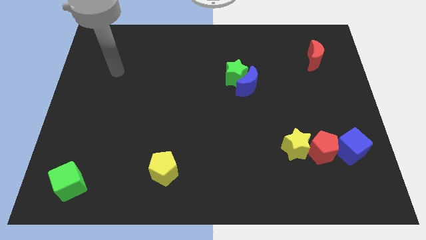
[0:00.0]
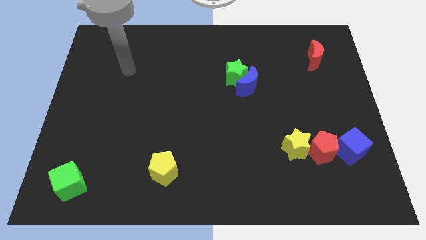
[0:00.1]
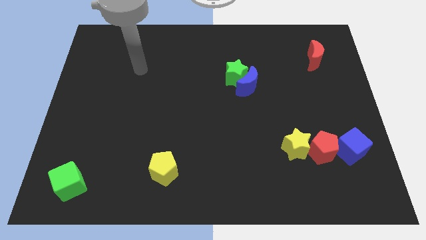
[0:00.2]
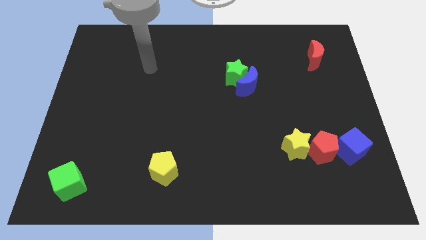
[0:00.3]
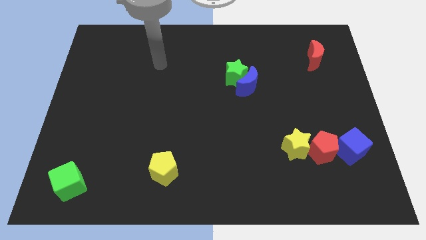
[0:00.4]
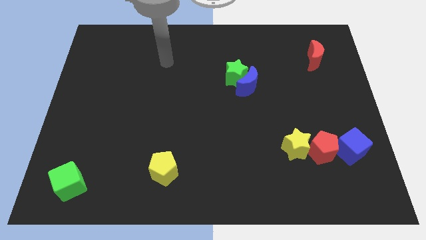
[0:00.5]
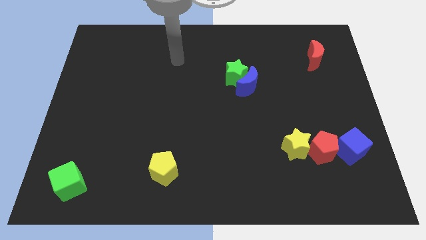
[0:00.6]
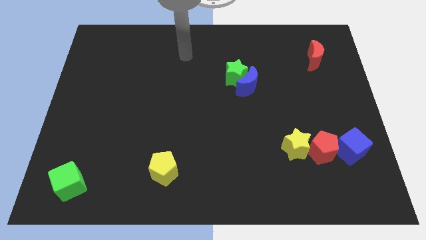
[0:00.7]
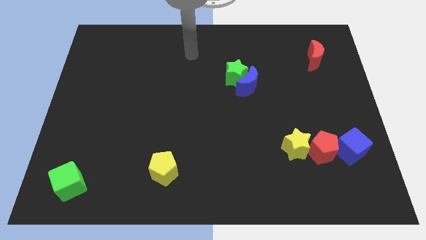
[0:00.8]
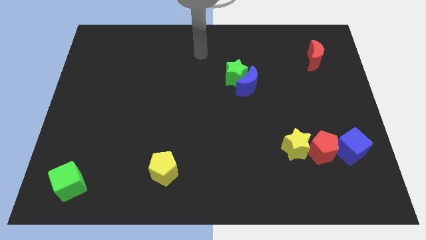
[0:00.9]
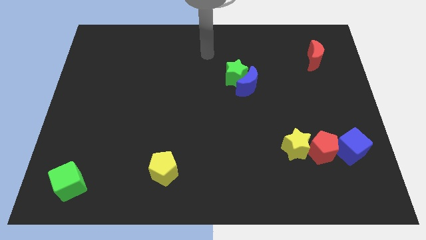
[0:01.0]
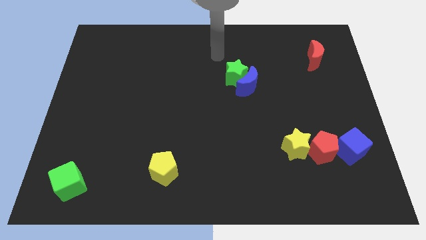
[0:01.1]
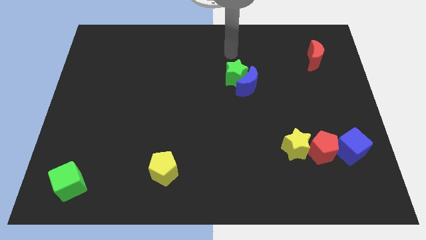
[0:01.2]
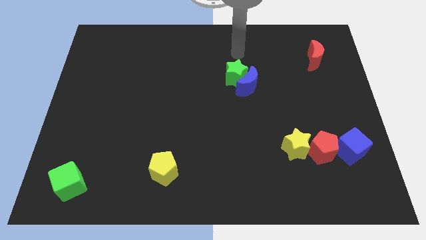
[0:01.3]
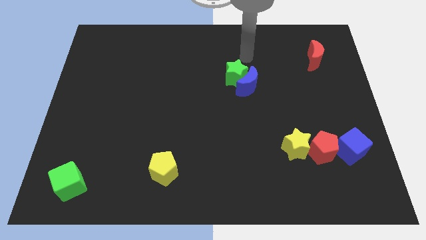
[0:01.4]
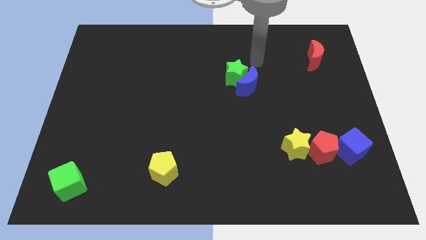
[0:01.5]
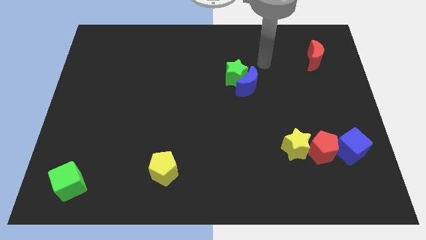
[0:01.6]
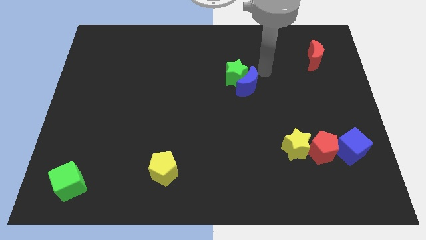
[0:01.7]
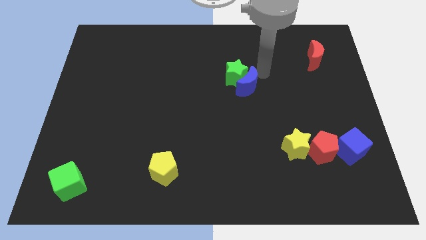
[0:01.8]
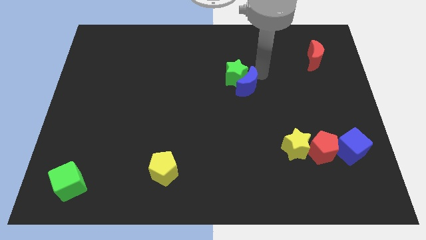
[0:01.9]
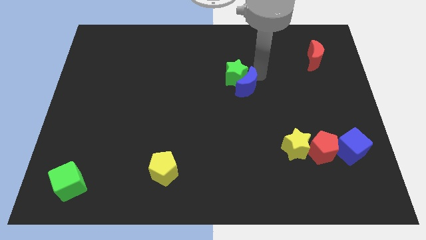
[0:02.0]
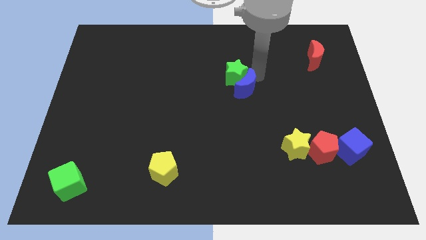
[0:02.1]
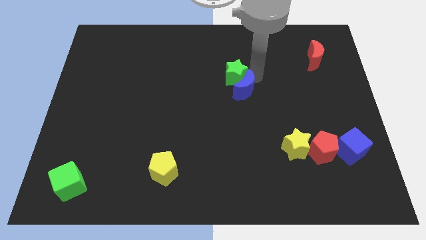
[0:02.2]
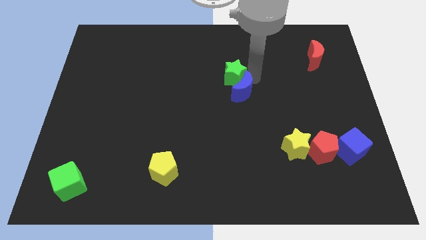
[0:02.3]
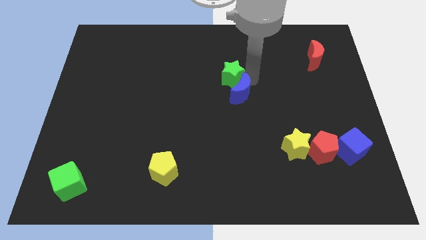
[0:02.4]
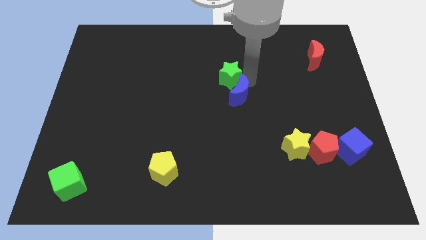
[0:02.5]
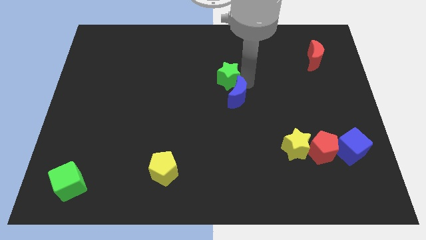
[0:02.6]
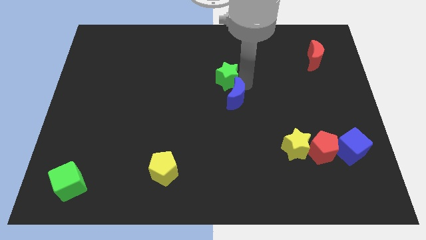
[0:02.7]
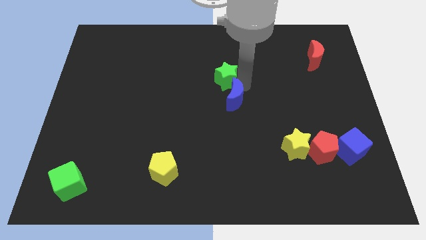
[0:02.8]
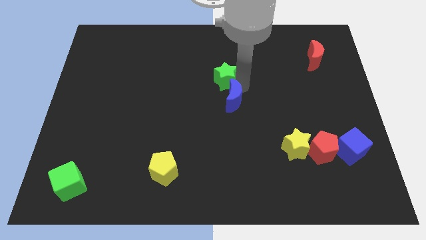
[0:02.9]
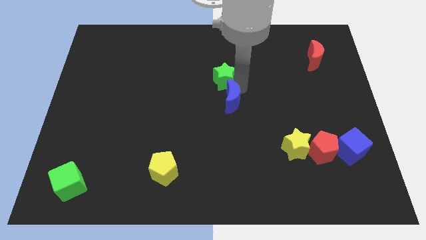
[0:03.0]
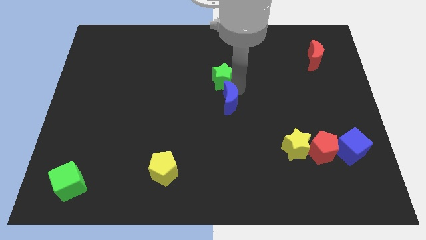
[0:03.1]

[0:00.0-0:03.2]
move the blue moon down and left a bit

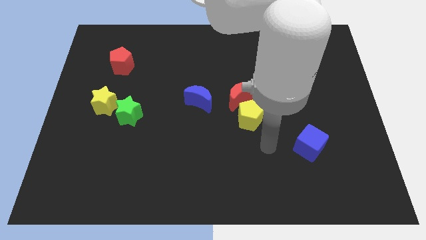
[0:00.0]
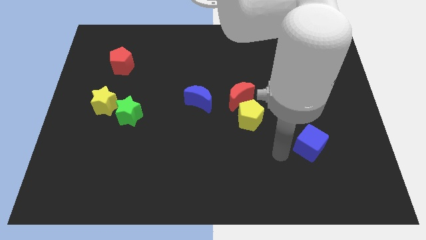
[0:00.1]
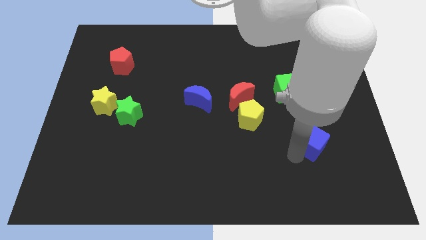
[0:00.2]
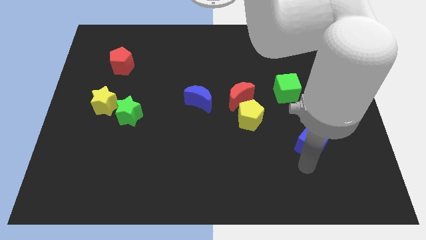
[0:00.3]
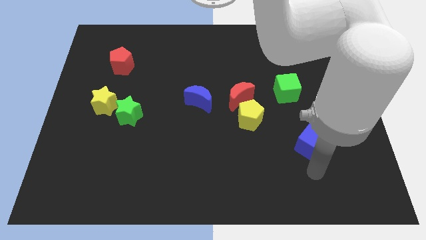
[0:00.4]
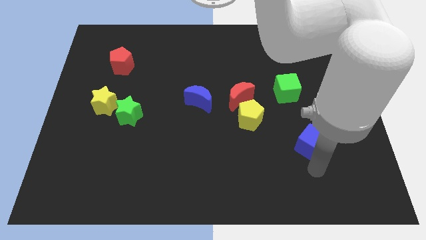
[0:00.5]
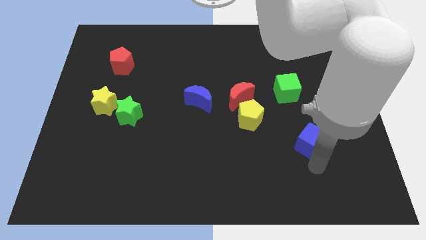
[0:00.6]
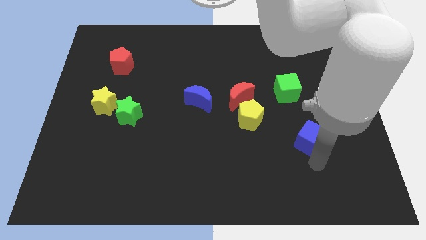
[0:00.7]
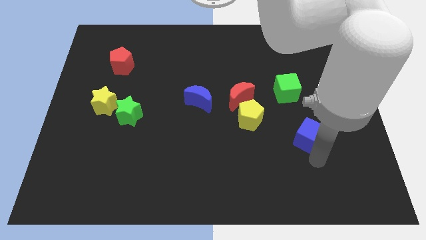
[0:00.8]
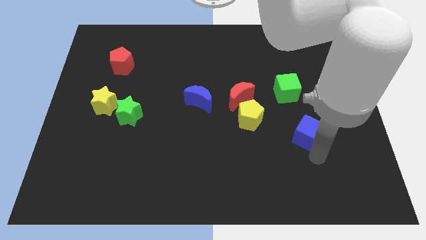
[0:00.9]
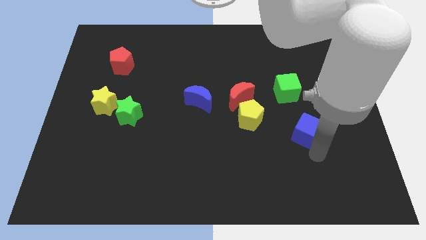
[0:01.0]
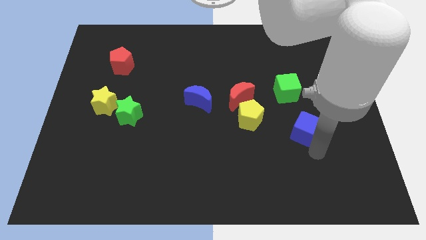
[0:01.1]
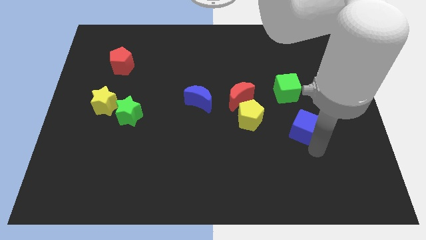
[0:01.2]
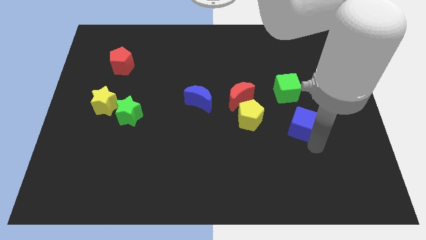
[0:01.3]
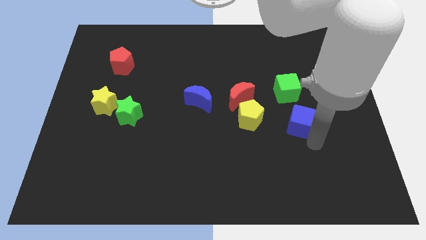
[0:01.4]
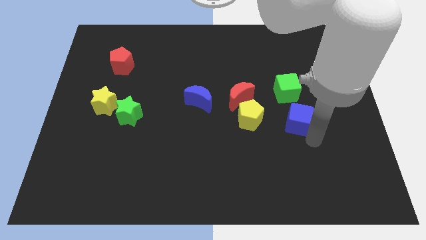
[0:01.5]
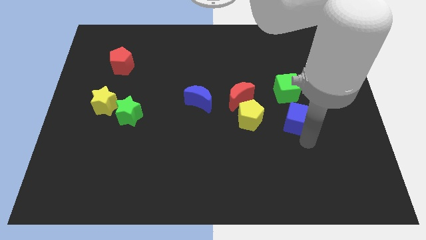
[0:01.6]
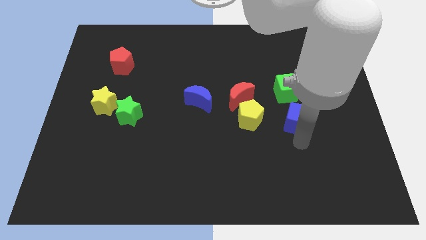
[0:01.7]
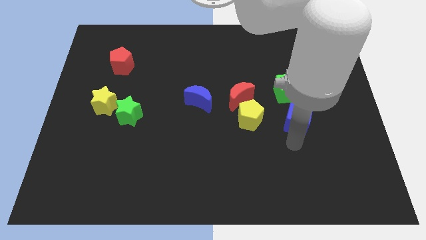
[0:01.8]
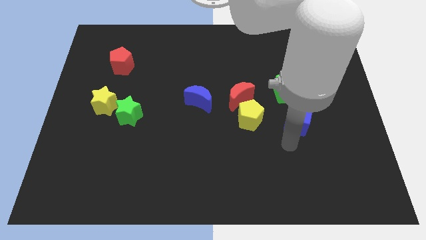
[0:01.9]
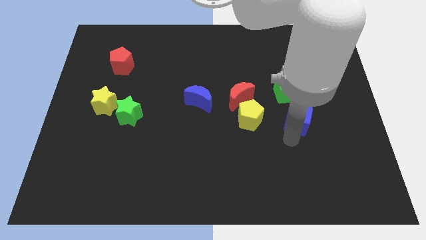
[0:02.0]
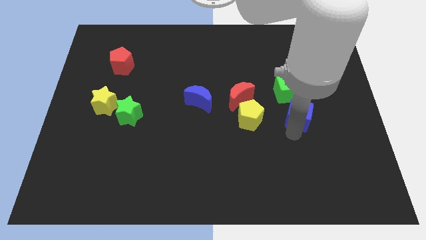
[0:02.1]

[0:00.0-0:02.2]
slightly slide the blue cube upwards

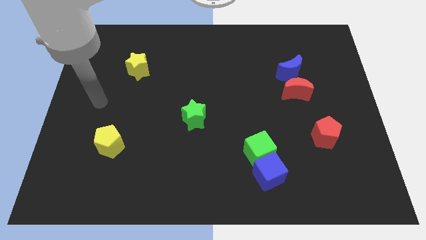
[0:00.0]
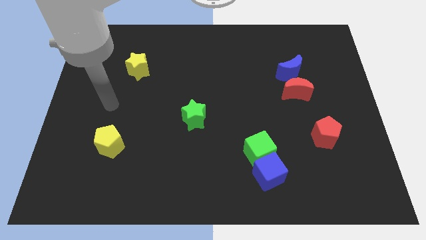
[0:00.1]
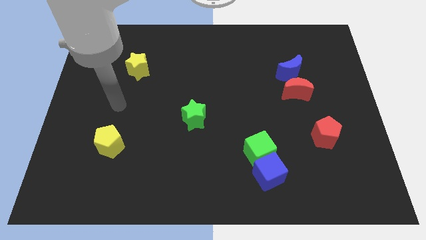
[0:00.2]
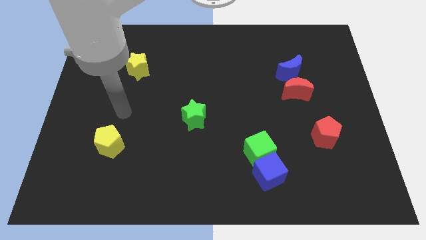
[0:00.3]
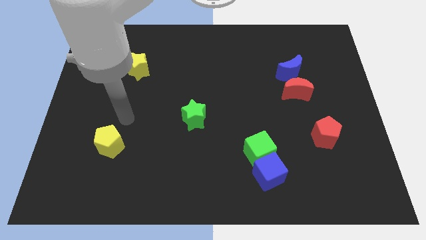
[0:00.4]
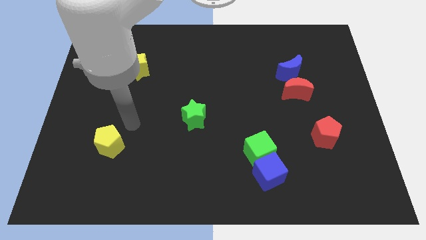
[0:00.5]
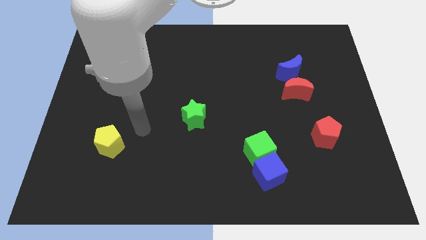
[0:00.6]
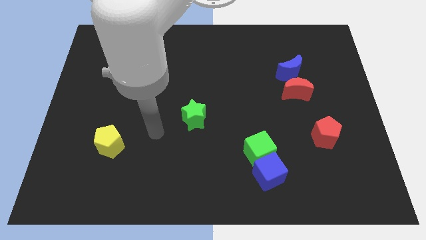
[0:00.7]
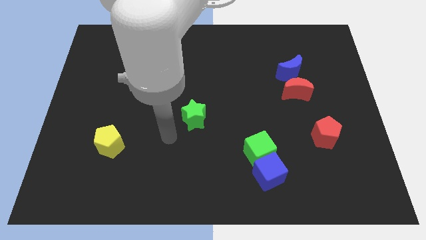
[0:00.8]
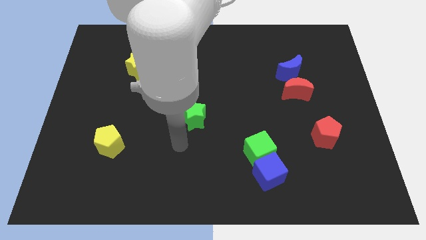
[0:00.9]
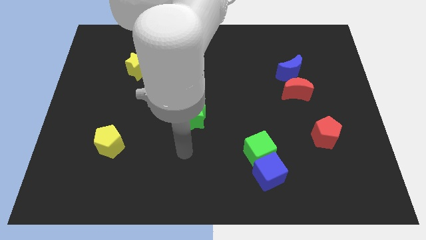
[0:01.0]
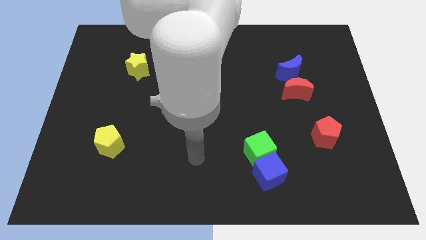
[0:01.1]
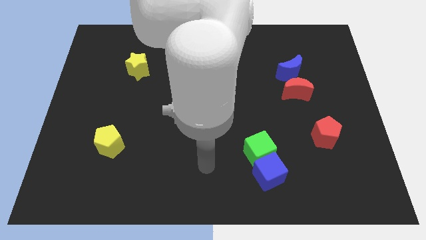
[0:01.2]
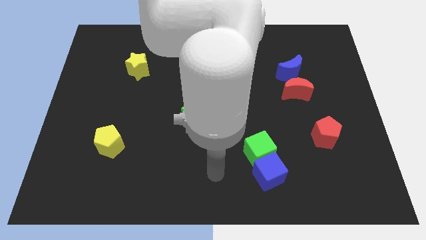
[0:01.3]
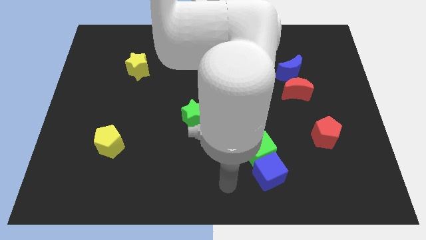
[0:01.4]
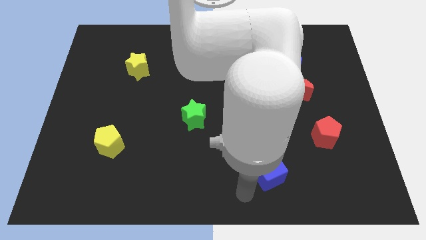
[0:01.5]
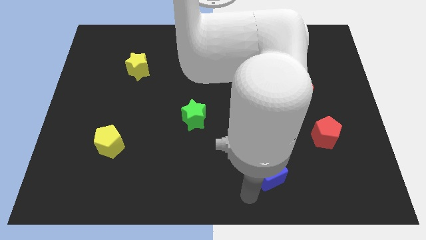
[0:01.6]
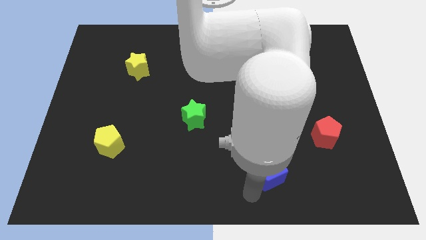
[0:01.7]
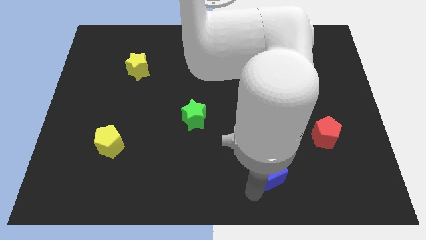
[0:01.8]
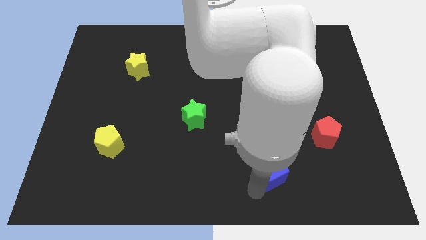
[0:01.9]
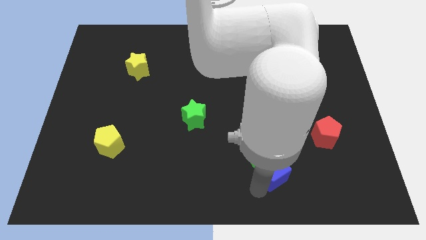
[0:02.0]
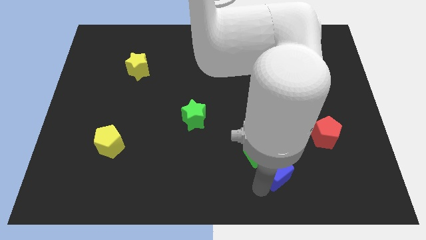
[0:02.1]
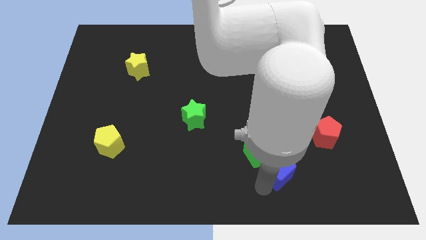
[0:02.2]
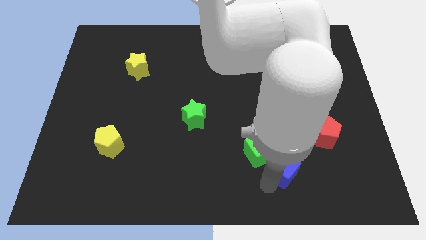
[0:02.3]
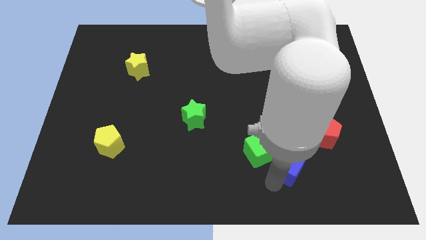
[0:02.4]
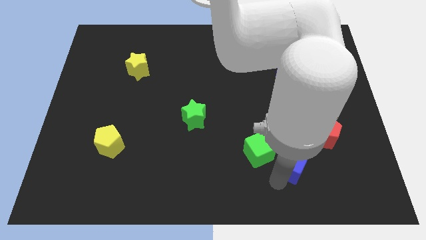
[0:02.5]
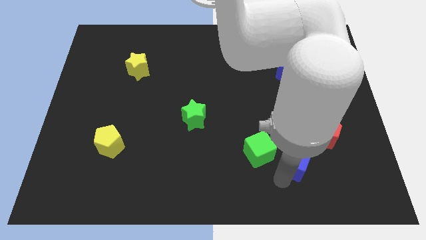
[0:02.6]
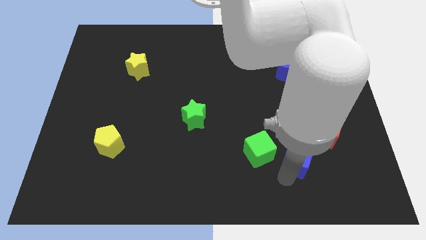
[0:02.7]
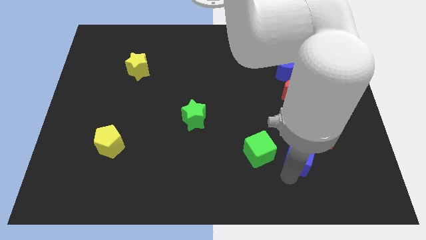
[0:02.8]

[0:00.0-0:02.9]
slightly slide the blue cube diagonally upwards and right
